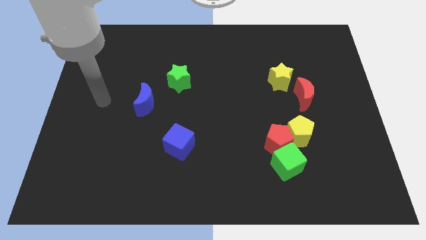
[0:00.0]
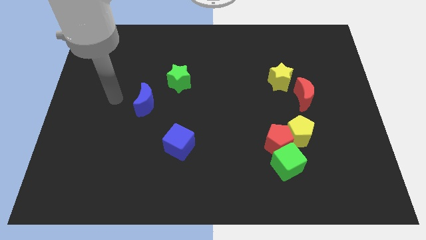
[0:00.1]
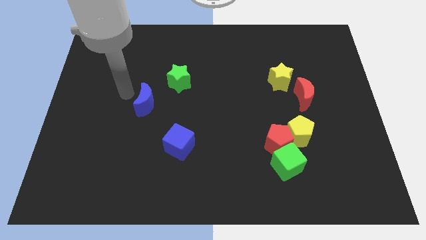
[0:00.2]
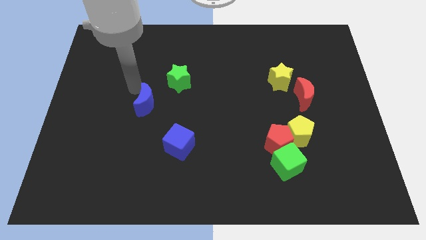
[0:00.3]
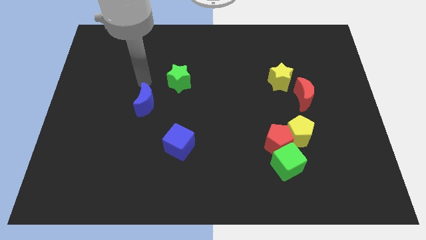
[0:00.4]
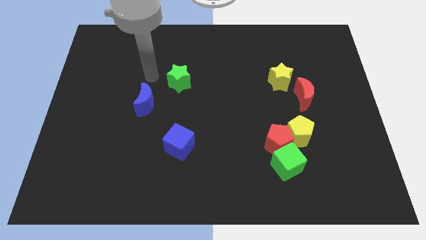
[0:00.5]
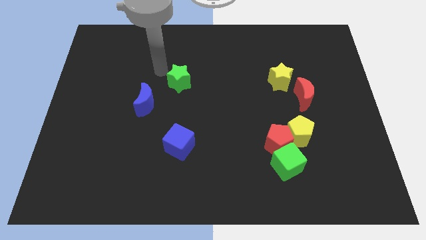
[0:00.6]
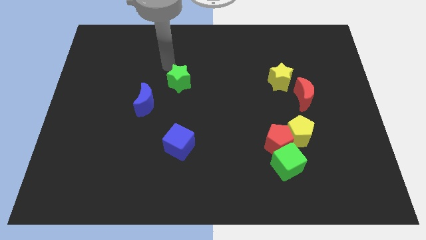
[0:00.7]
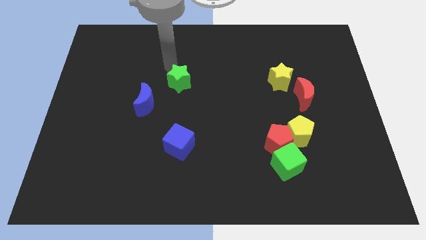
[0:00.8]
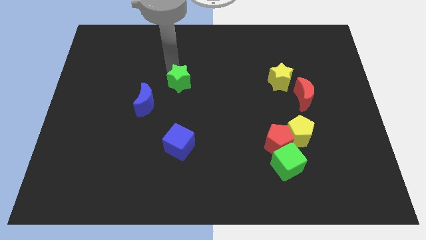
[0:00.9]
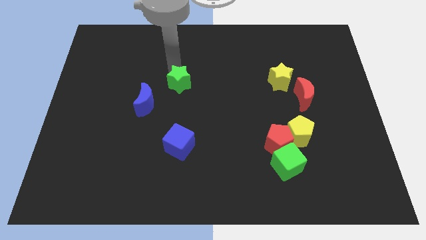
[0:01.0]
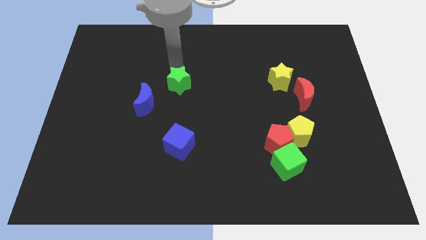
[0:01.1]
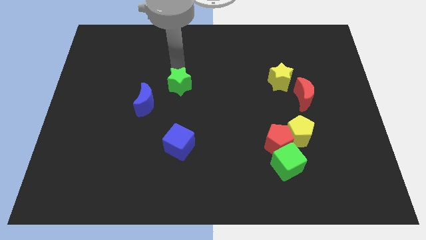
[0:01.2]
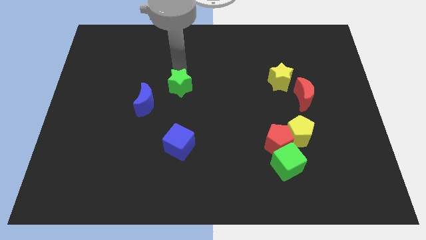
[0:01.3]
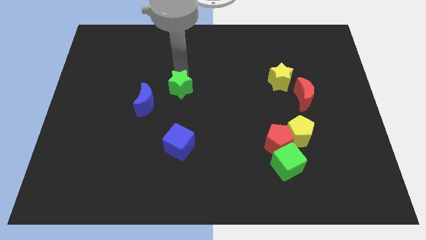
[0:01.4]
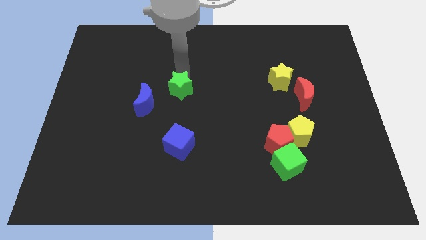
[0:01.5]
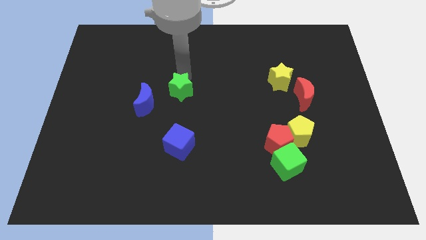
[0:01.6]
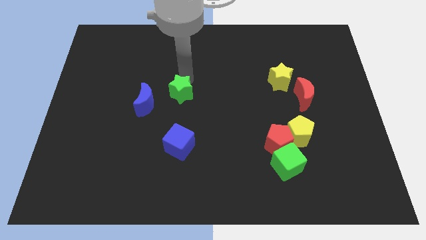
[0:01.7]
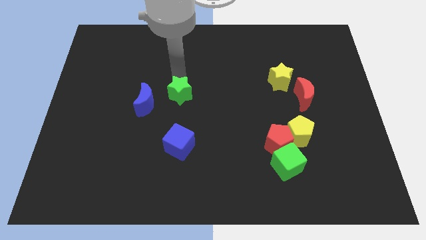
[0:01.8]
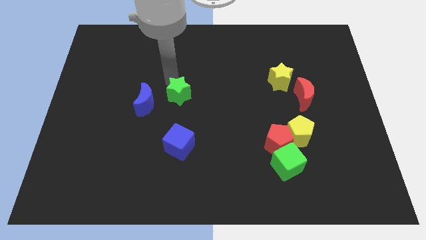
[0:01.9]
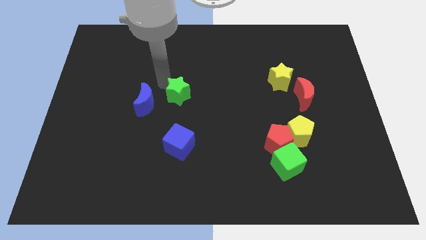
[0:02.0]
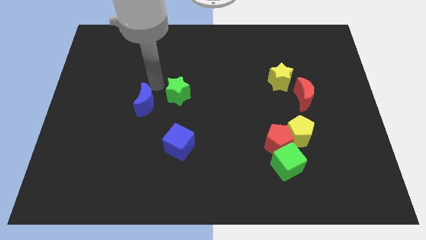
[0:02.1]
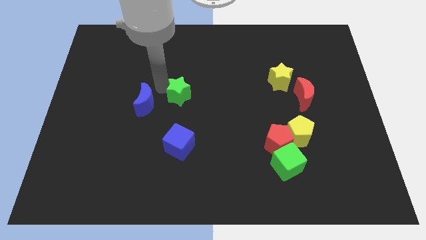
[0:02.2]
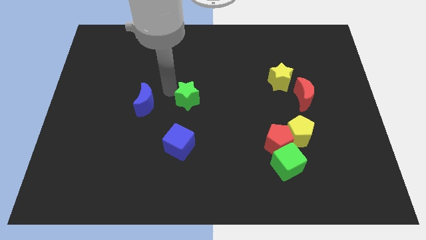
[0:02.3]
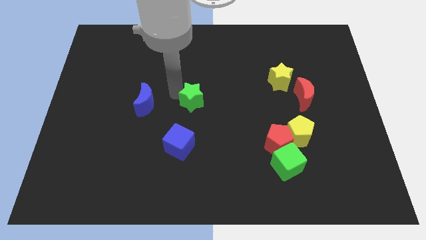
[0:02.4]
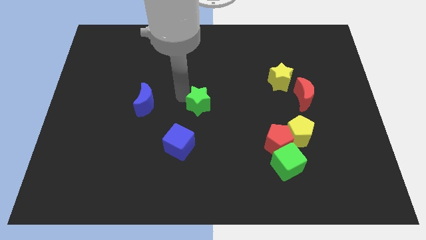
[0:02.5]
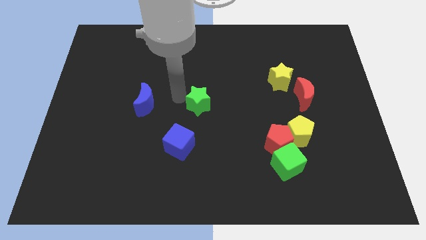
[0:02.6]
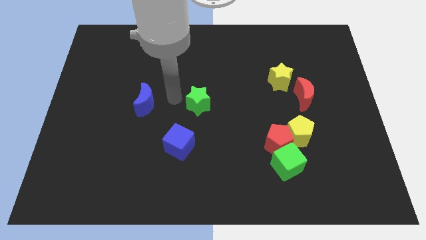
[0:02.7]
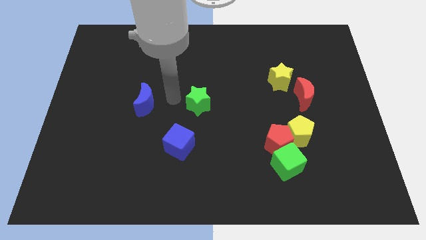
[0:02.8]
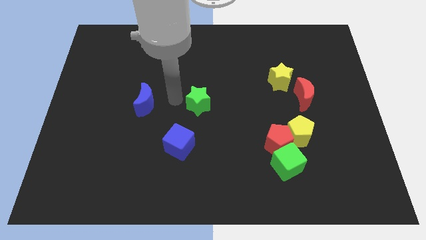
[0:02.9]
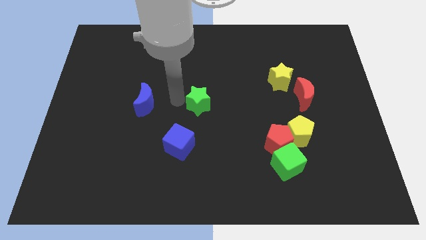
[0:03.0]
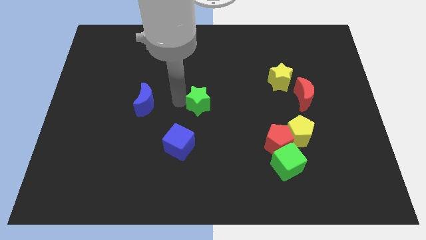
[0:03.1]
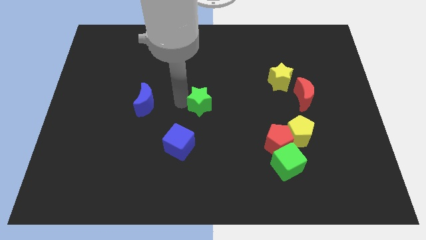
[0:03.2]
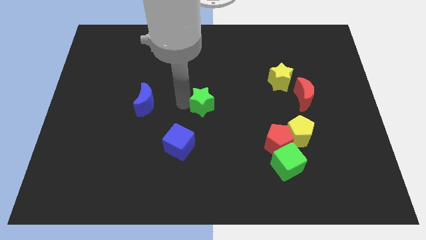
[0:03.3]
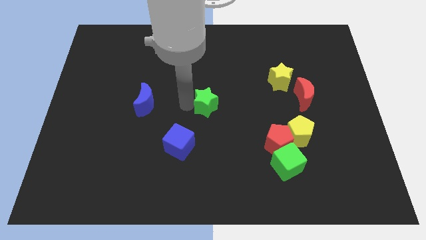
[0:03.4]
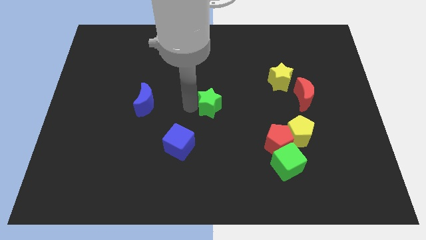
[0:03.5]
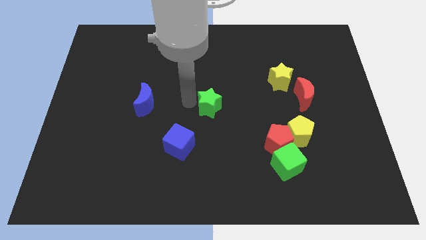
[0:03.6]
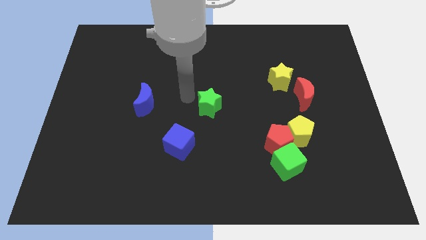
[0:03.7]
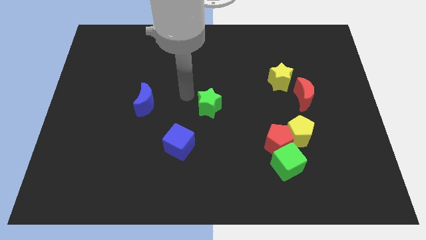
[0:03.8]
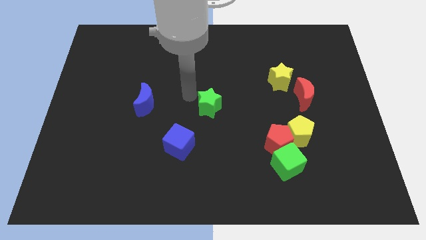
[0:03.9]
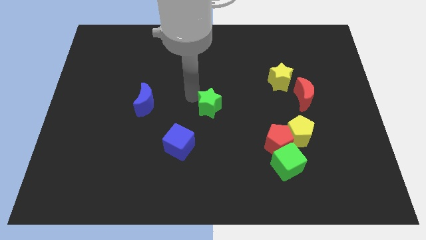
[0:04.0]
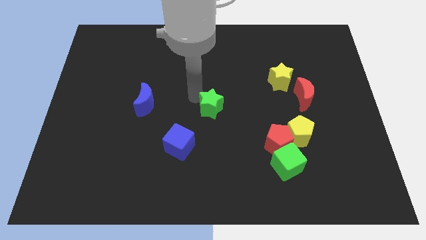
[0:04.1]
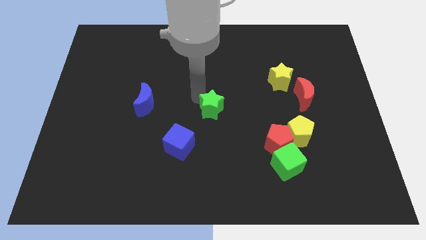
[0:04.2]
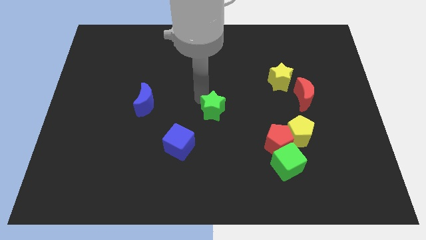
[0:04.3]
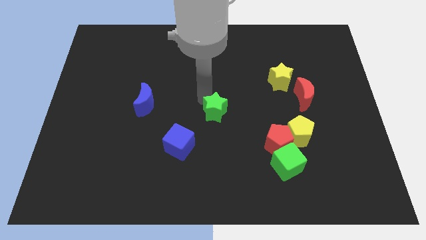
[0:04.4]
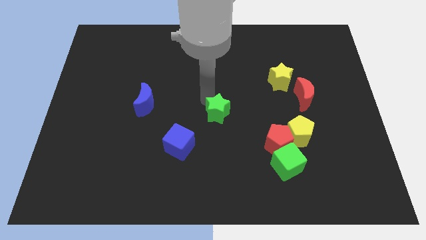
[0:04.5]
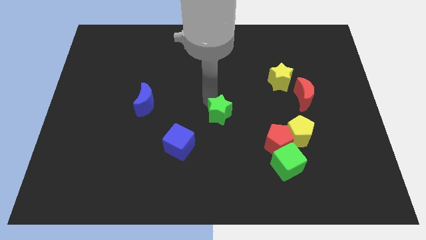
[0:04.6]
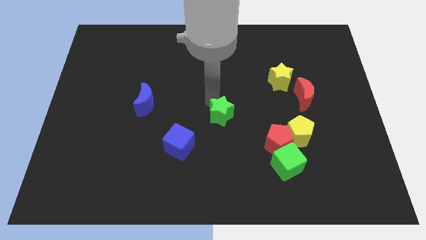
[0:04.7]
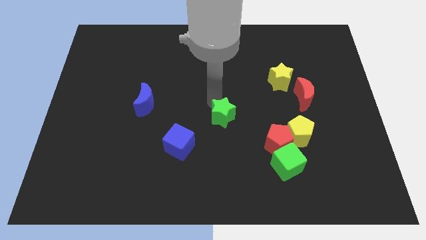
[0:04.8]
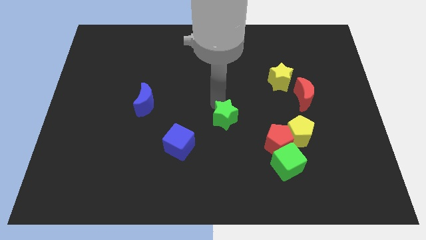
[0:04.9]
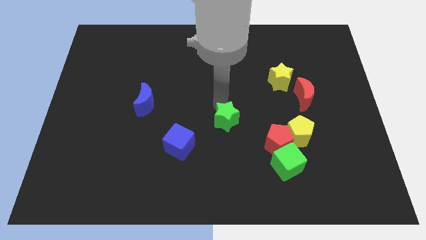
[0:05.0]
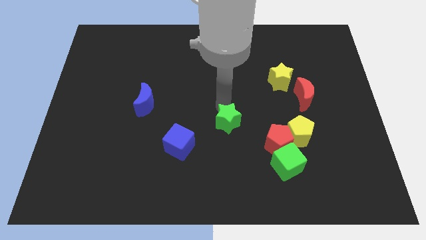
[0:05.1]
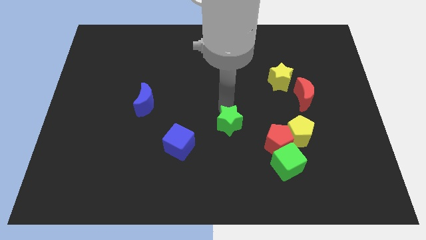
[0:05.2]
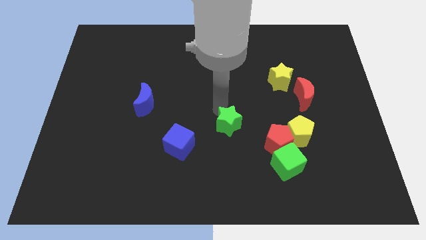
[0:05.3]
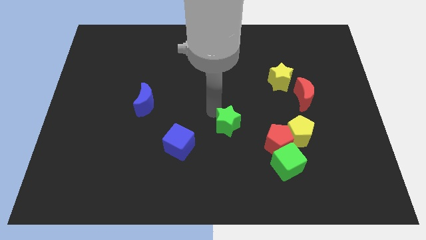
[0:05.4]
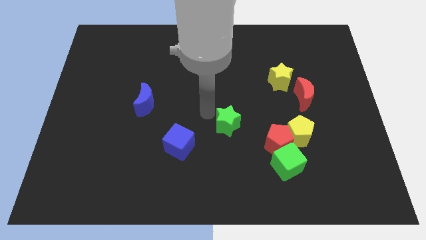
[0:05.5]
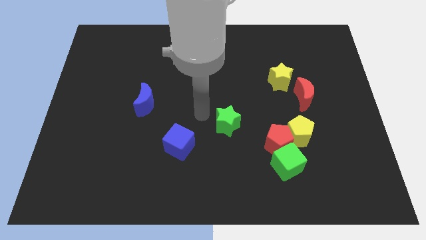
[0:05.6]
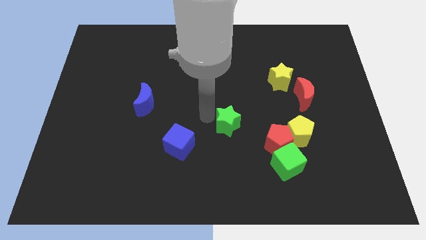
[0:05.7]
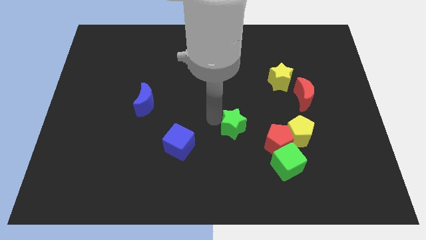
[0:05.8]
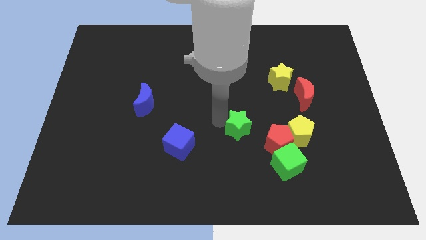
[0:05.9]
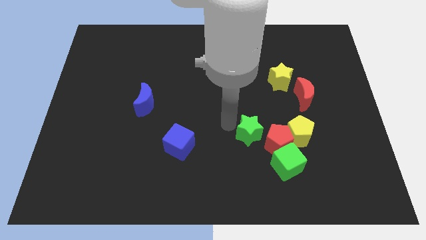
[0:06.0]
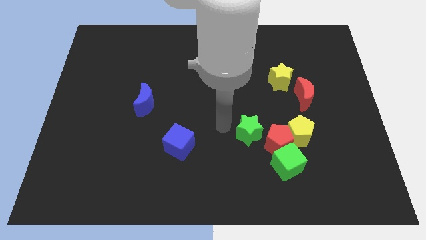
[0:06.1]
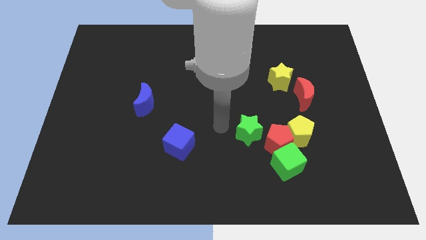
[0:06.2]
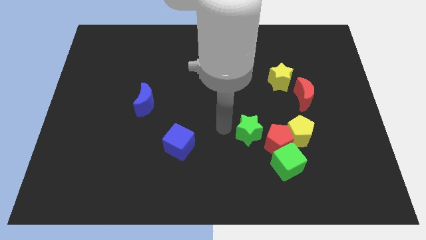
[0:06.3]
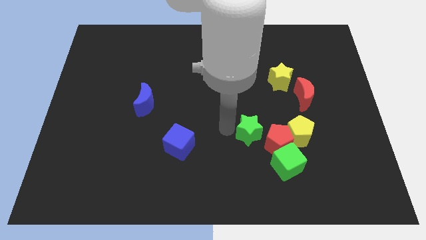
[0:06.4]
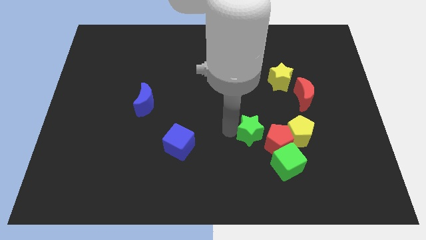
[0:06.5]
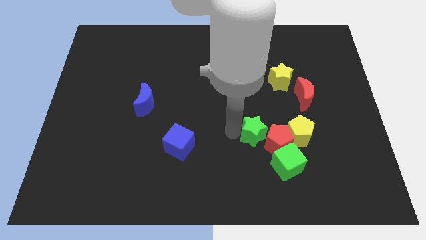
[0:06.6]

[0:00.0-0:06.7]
push the green star to the red pentagon

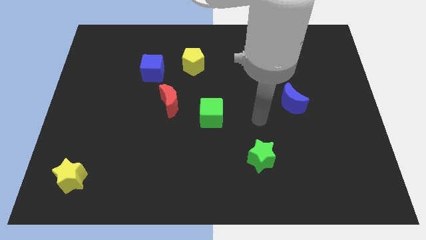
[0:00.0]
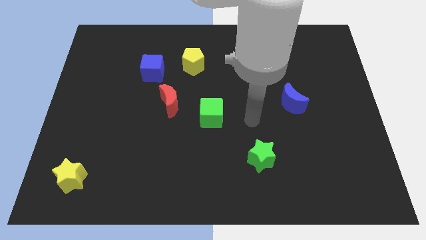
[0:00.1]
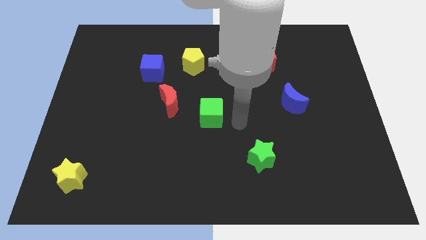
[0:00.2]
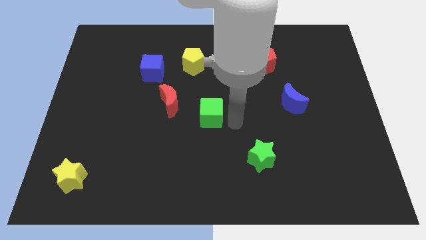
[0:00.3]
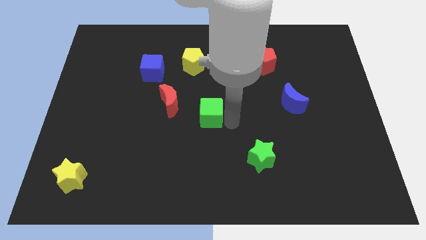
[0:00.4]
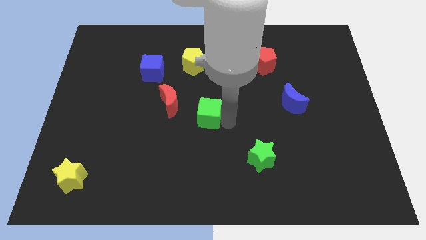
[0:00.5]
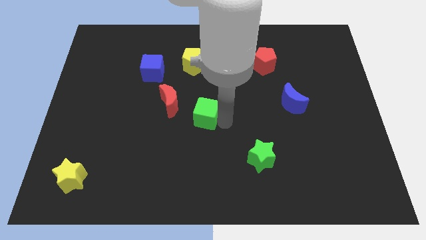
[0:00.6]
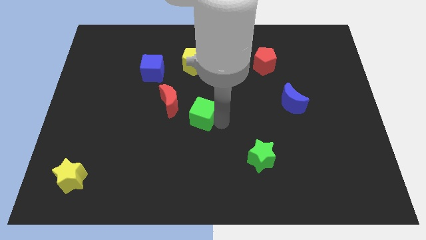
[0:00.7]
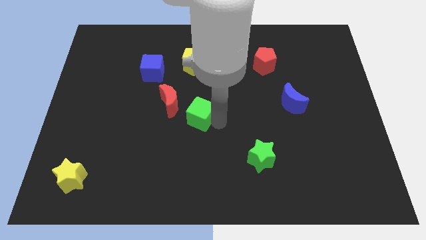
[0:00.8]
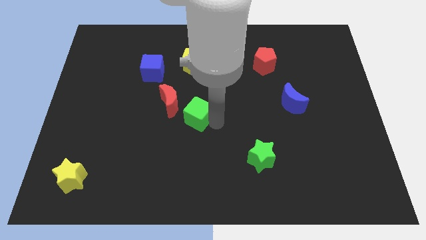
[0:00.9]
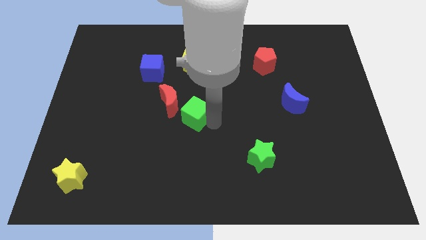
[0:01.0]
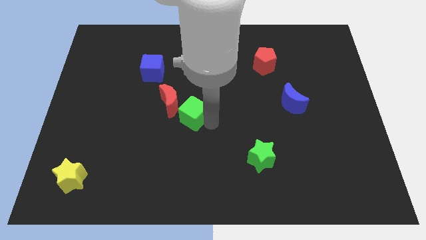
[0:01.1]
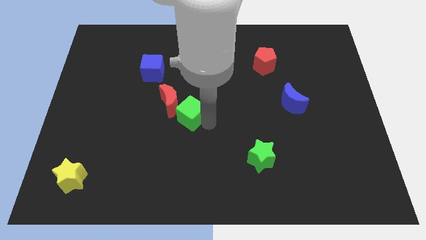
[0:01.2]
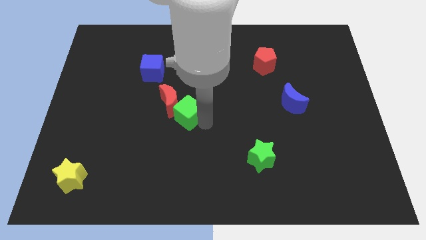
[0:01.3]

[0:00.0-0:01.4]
slide the green cube to the red moon
